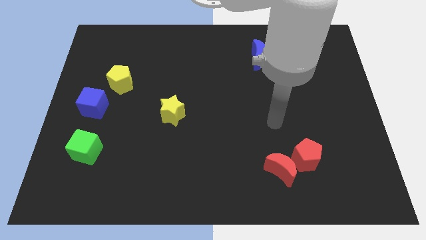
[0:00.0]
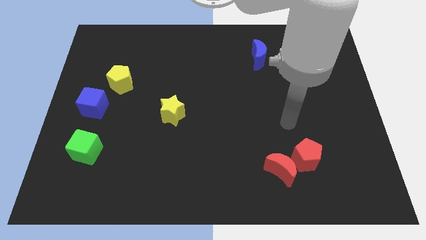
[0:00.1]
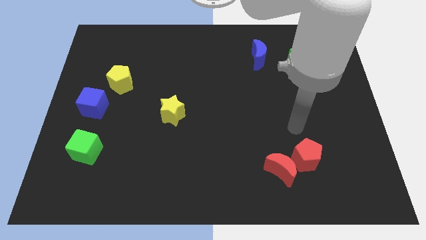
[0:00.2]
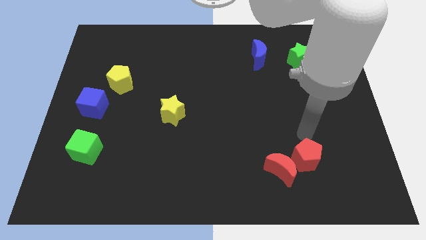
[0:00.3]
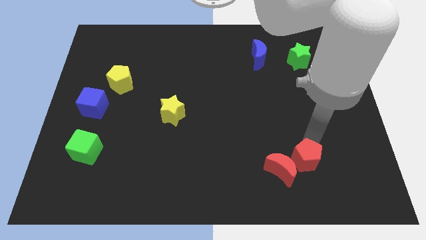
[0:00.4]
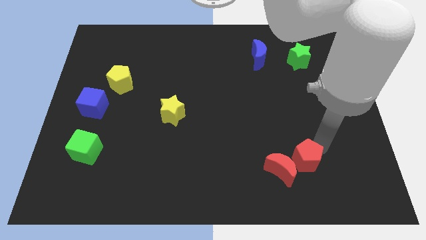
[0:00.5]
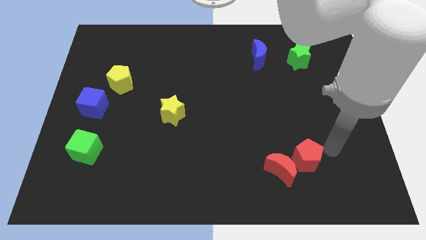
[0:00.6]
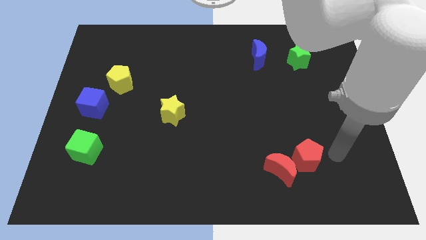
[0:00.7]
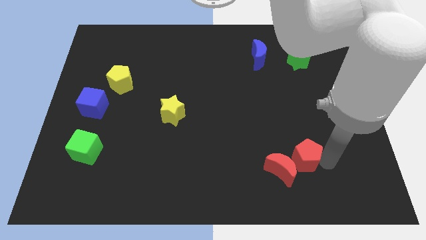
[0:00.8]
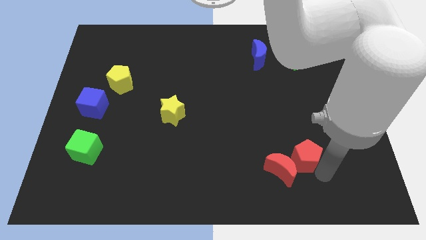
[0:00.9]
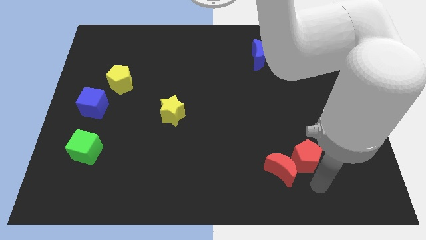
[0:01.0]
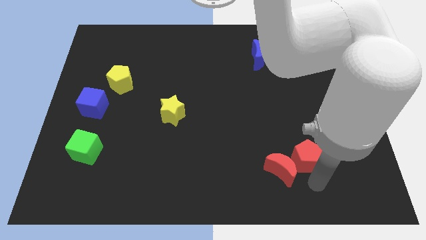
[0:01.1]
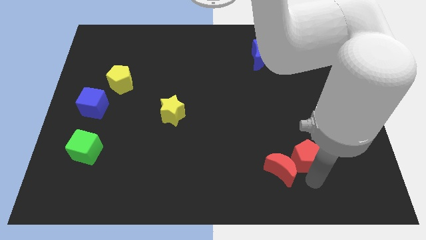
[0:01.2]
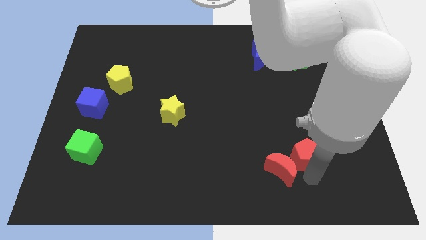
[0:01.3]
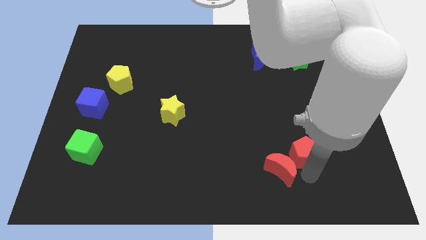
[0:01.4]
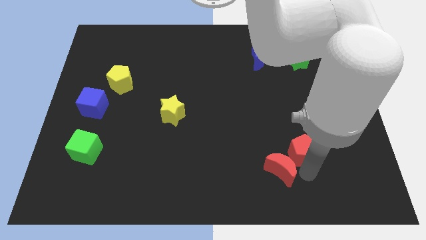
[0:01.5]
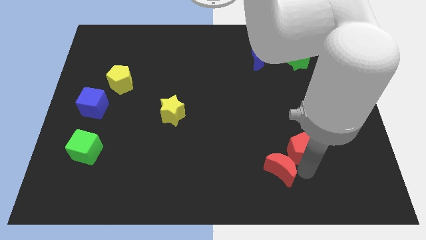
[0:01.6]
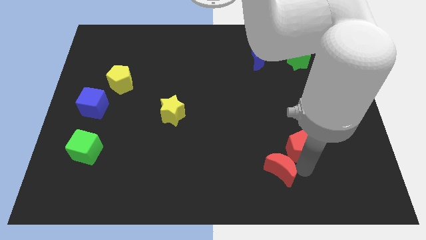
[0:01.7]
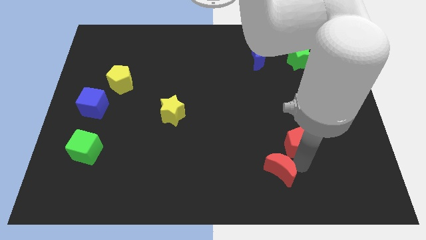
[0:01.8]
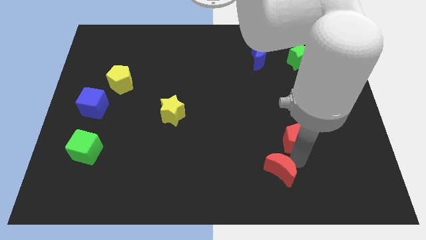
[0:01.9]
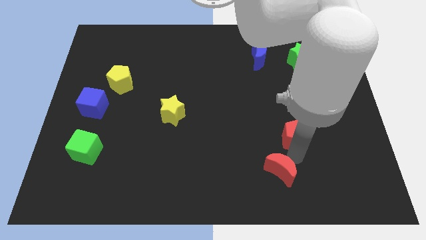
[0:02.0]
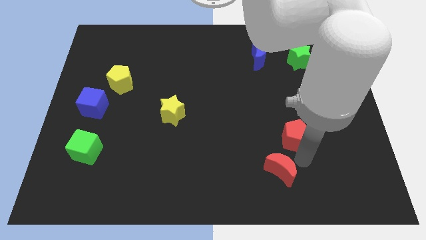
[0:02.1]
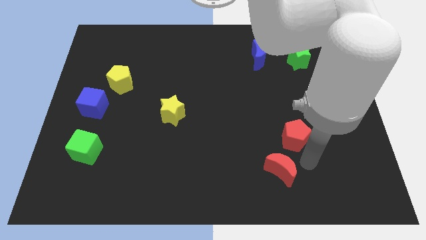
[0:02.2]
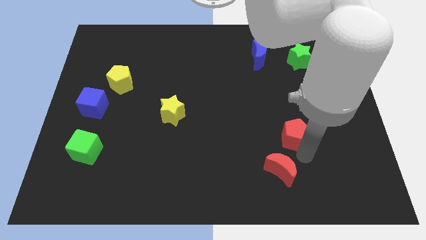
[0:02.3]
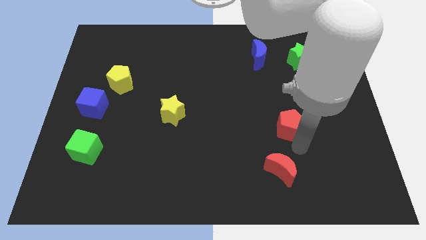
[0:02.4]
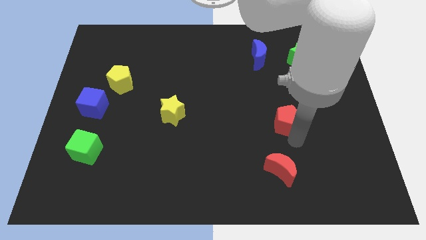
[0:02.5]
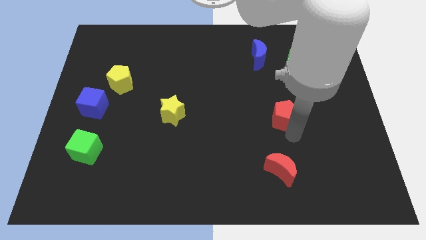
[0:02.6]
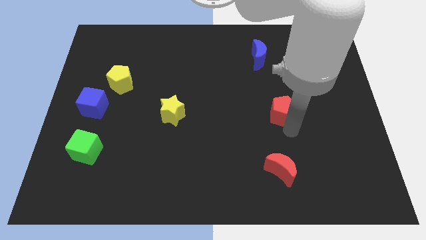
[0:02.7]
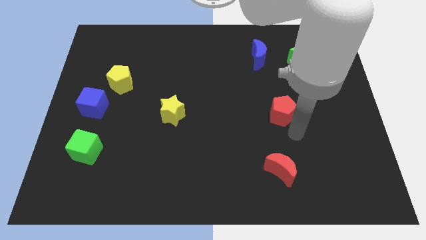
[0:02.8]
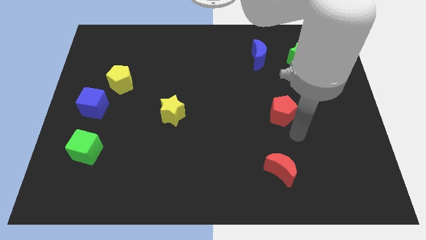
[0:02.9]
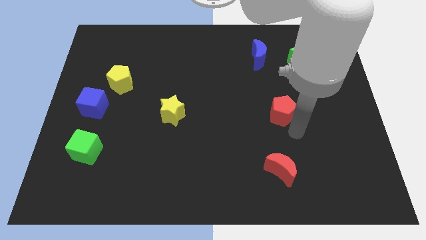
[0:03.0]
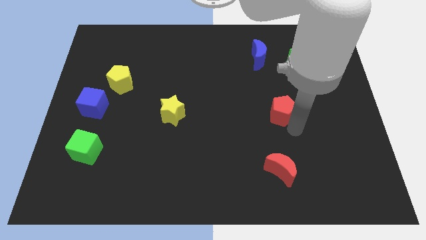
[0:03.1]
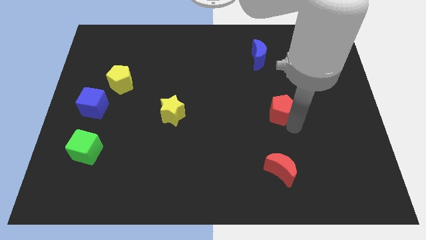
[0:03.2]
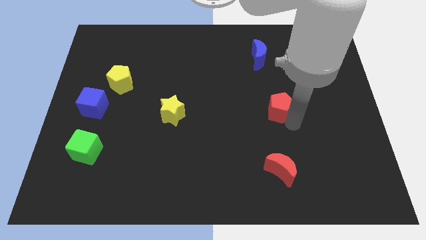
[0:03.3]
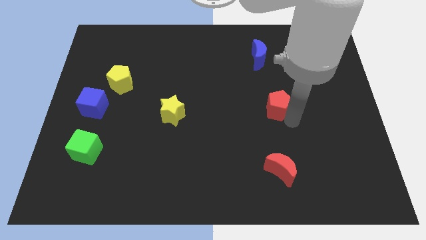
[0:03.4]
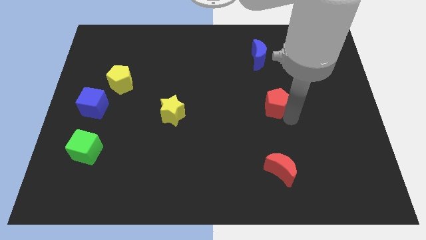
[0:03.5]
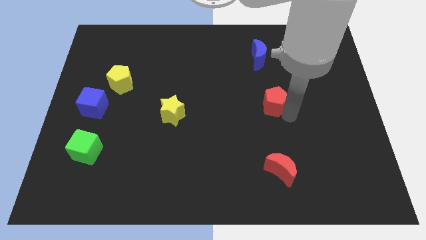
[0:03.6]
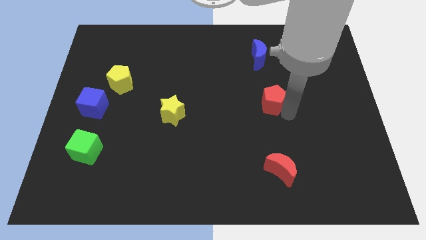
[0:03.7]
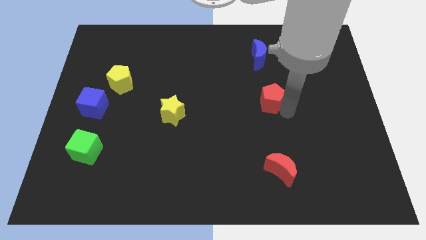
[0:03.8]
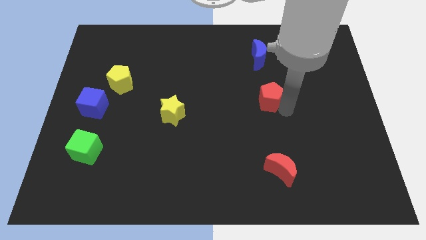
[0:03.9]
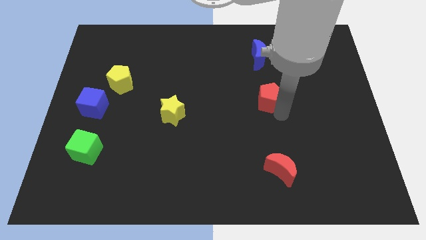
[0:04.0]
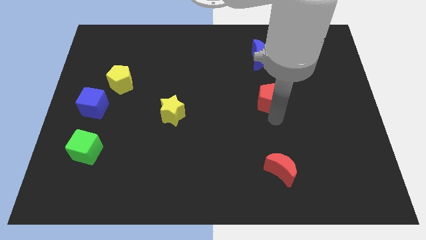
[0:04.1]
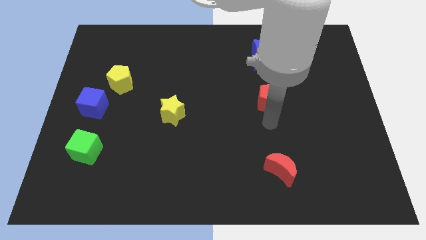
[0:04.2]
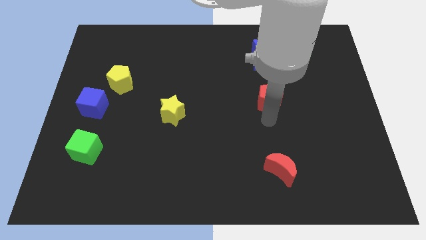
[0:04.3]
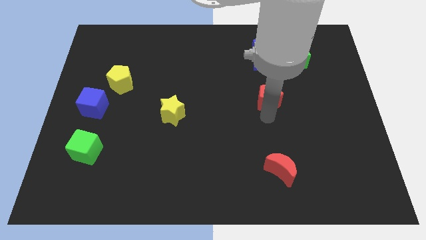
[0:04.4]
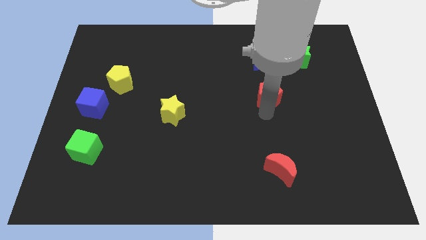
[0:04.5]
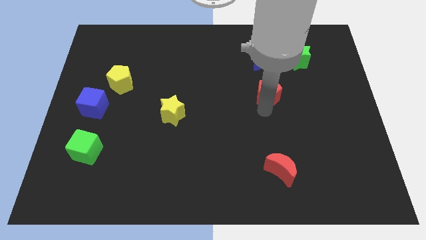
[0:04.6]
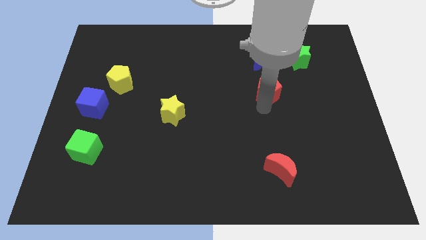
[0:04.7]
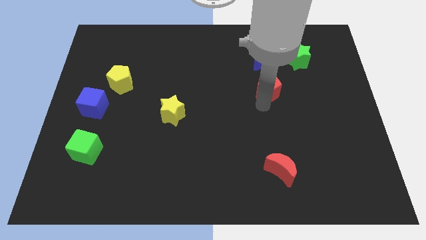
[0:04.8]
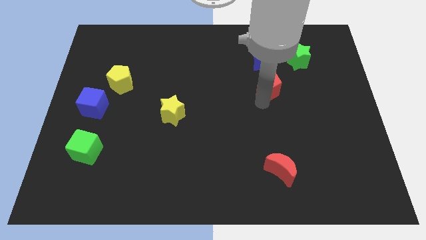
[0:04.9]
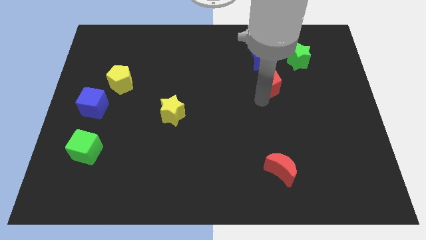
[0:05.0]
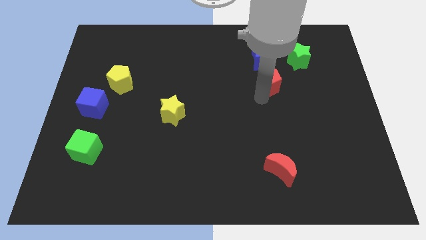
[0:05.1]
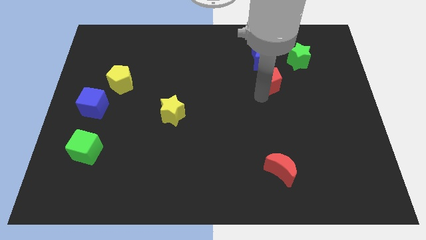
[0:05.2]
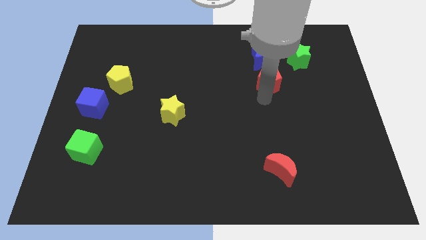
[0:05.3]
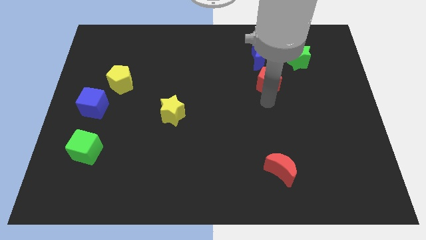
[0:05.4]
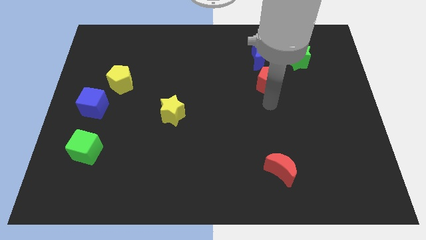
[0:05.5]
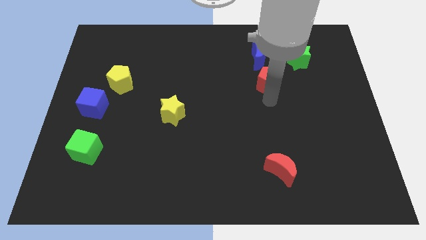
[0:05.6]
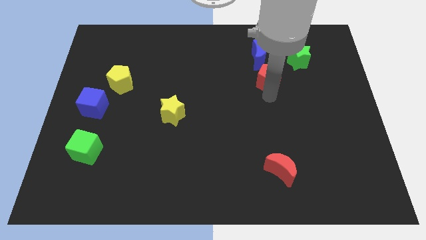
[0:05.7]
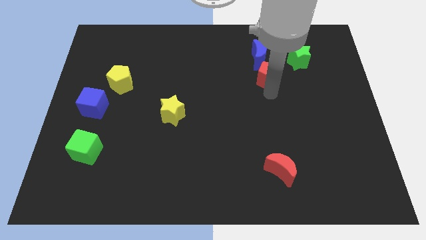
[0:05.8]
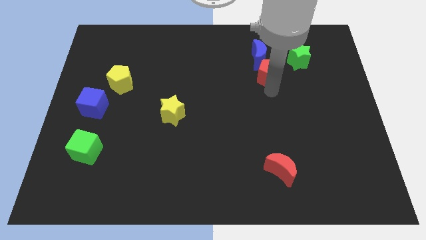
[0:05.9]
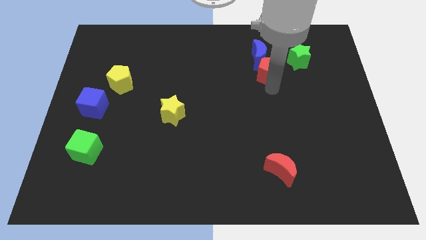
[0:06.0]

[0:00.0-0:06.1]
move the red pentagon to the blue moon

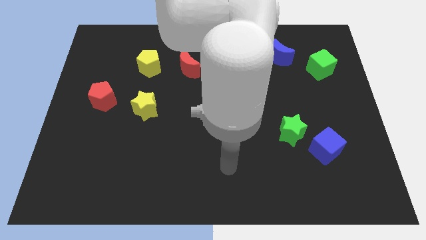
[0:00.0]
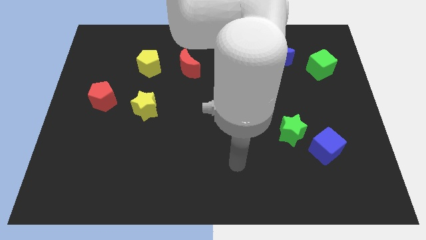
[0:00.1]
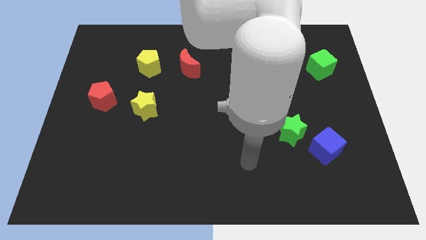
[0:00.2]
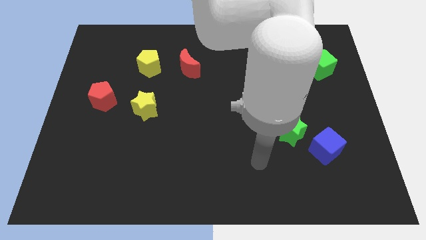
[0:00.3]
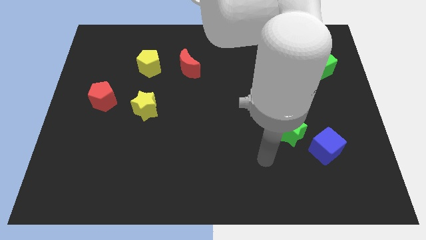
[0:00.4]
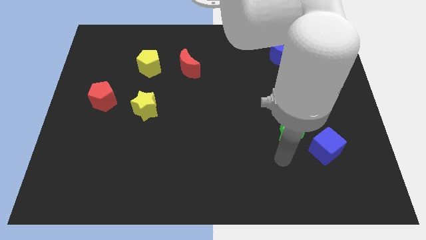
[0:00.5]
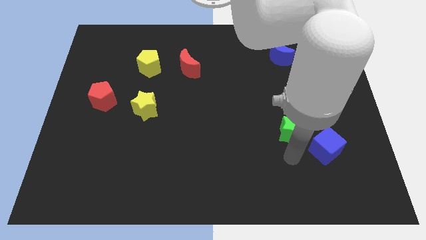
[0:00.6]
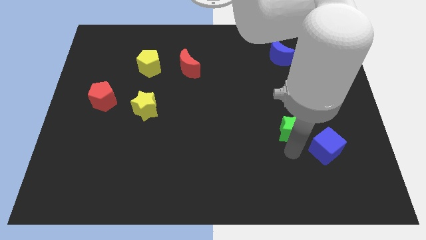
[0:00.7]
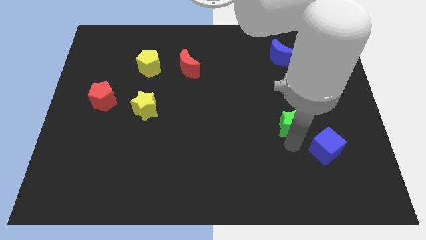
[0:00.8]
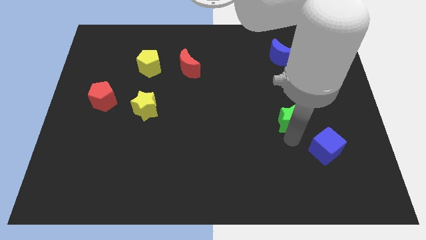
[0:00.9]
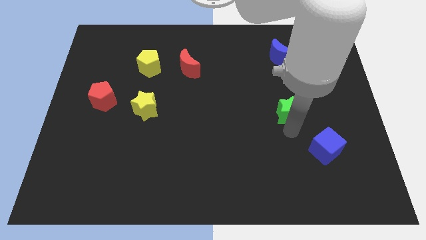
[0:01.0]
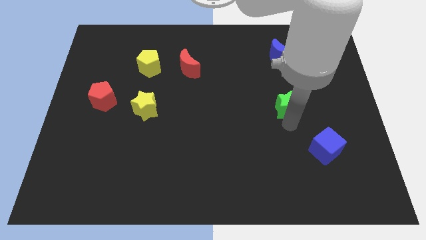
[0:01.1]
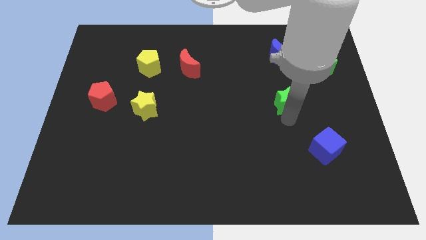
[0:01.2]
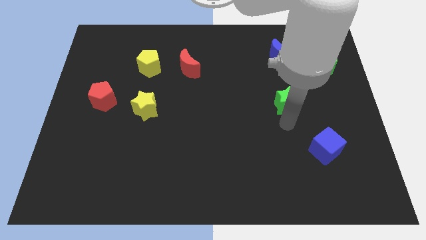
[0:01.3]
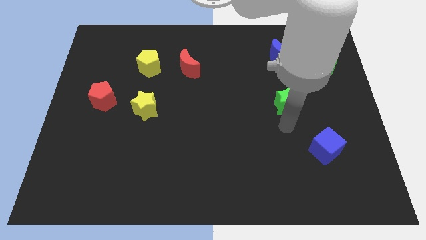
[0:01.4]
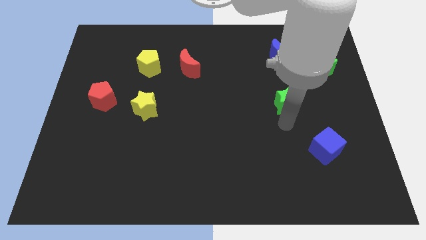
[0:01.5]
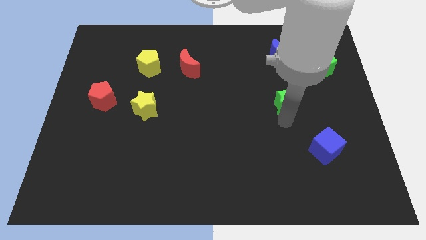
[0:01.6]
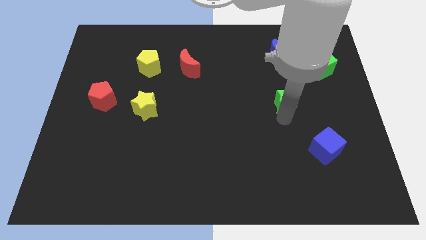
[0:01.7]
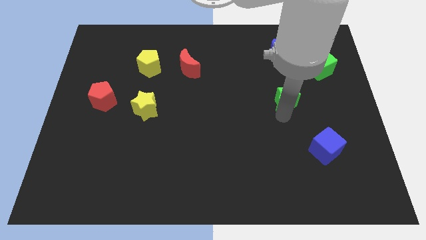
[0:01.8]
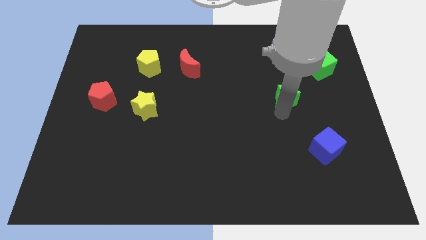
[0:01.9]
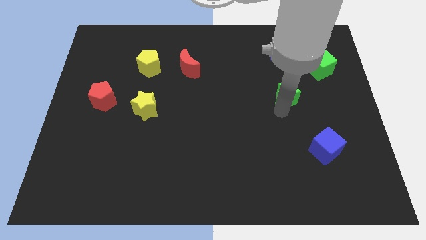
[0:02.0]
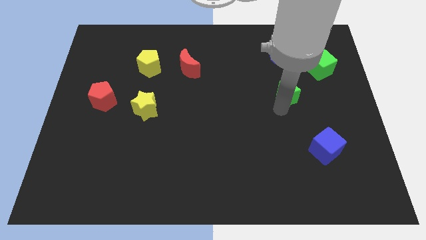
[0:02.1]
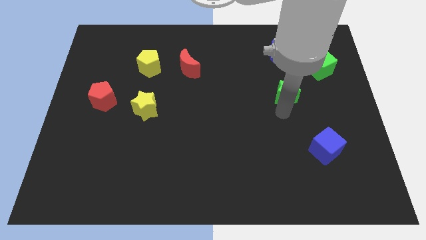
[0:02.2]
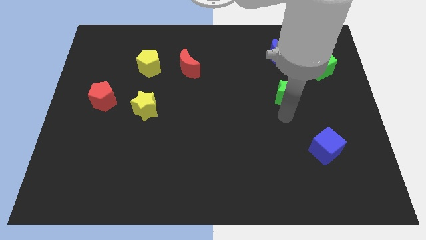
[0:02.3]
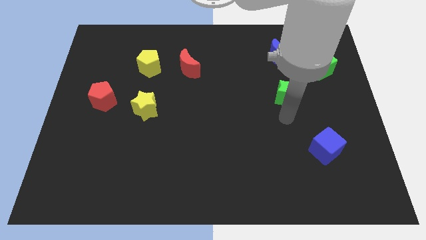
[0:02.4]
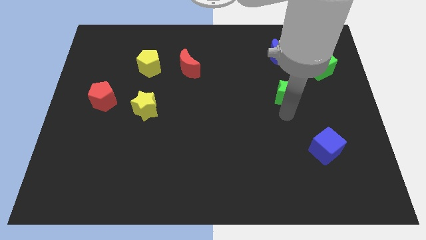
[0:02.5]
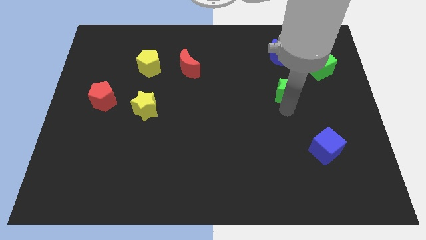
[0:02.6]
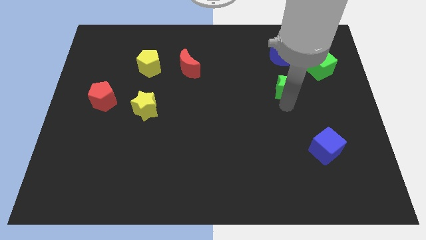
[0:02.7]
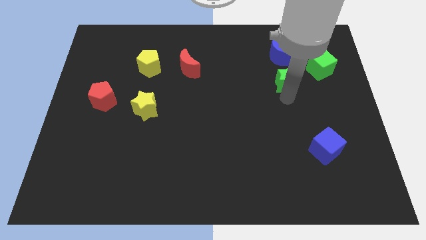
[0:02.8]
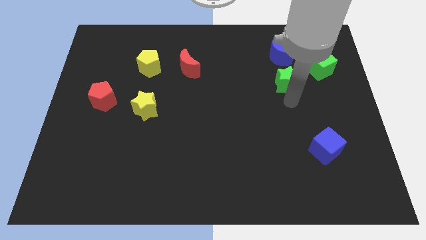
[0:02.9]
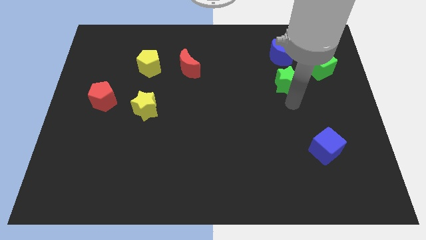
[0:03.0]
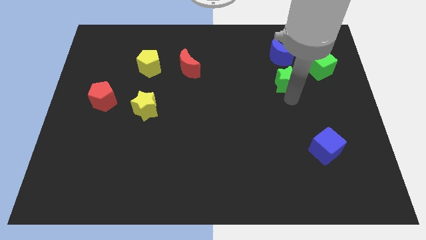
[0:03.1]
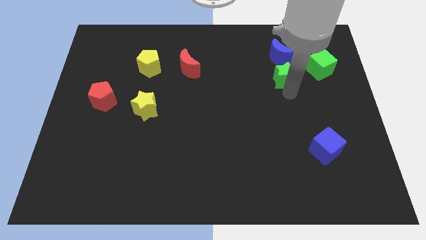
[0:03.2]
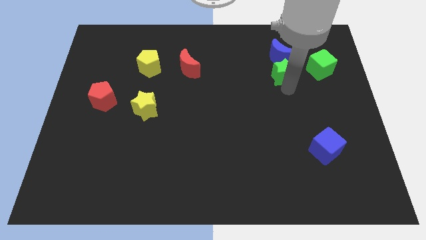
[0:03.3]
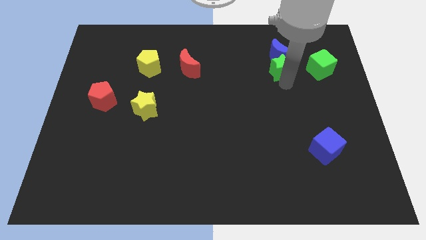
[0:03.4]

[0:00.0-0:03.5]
put the green star close to the blue moon
